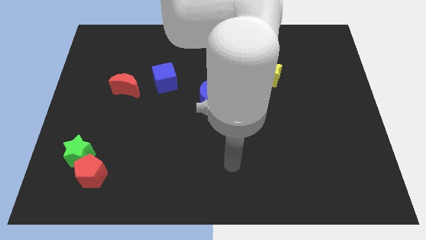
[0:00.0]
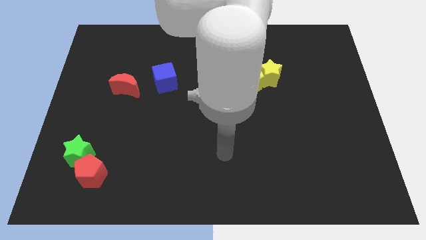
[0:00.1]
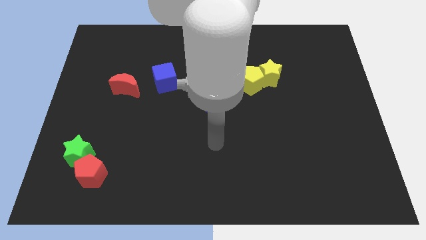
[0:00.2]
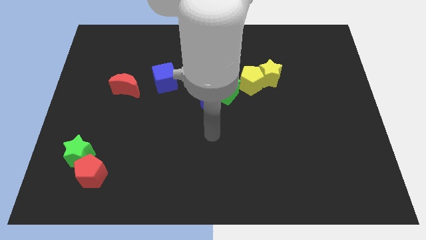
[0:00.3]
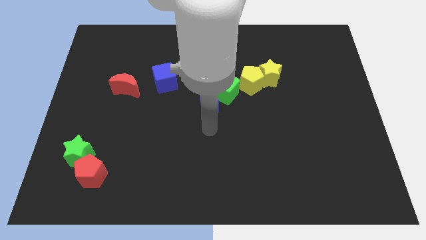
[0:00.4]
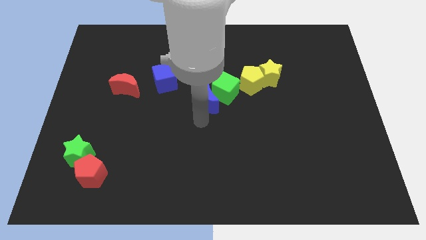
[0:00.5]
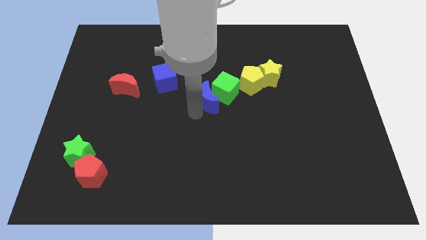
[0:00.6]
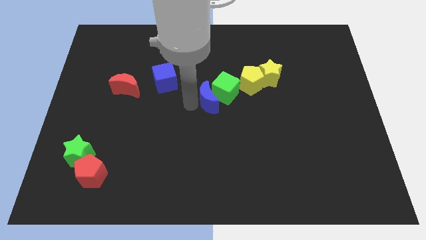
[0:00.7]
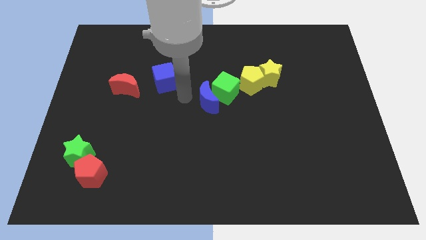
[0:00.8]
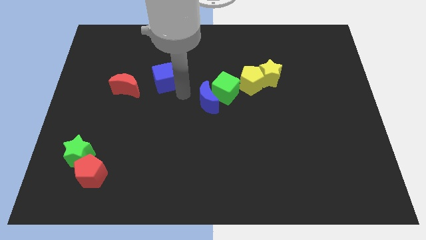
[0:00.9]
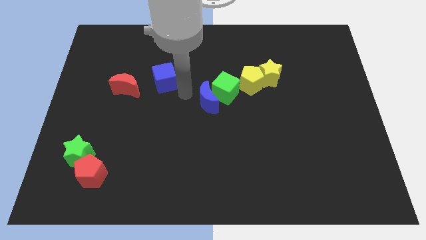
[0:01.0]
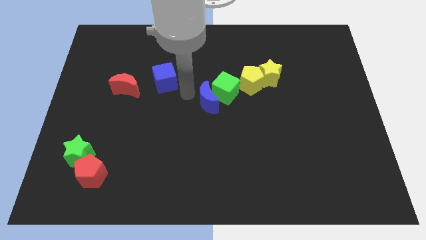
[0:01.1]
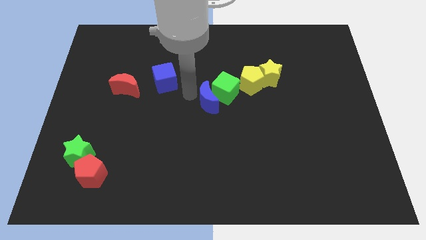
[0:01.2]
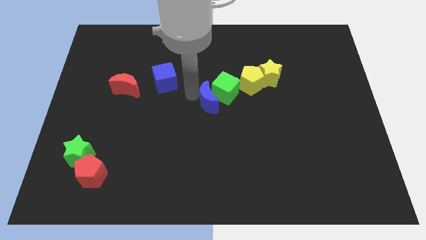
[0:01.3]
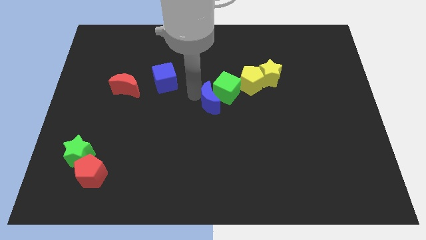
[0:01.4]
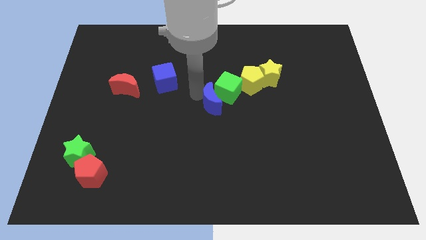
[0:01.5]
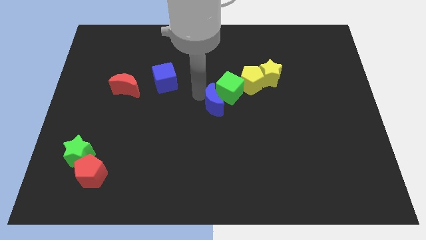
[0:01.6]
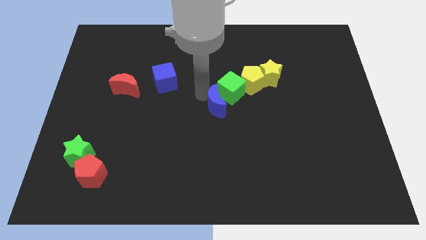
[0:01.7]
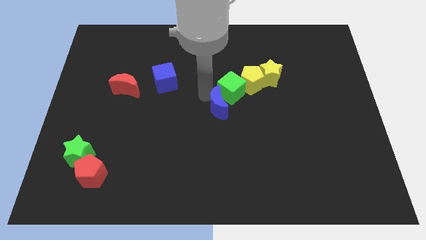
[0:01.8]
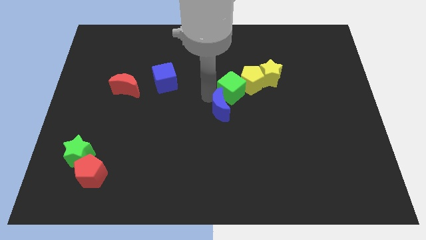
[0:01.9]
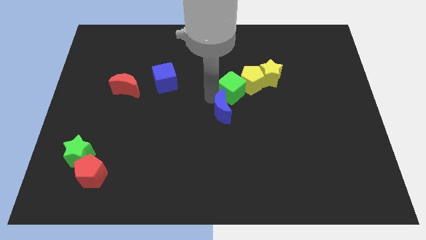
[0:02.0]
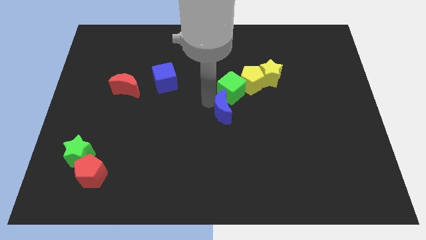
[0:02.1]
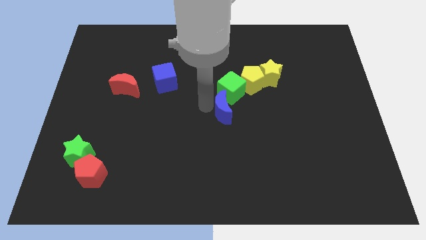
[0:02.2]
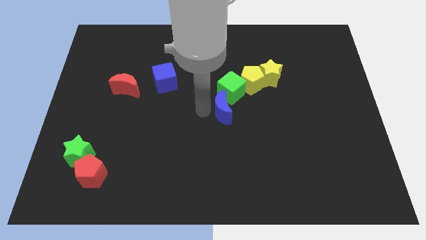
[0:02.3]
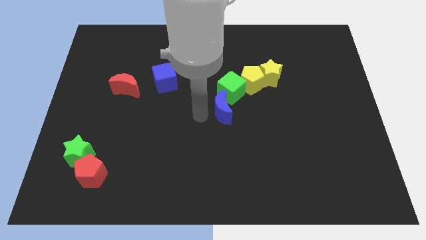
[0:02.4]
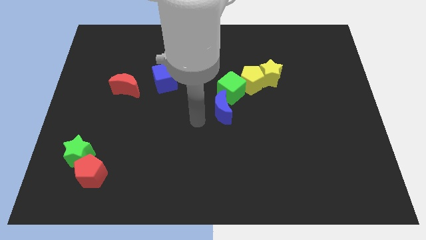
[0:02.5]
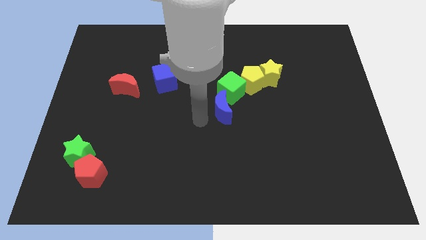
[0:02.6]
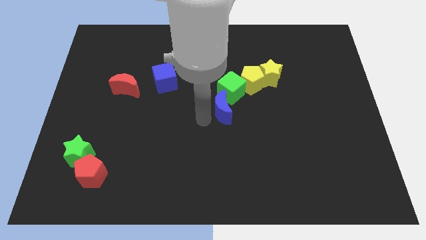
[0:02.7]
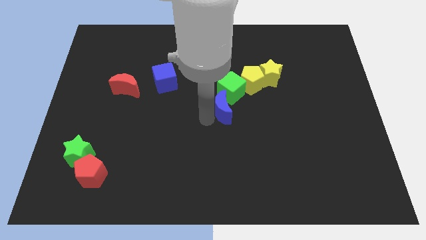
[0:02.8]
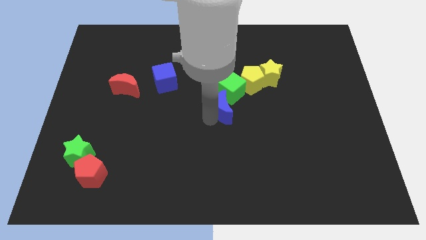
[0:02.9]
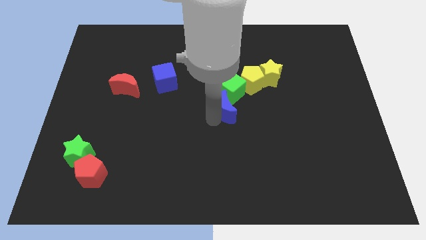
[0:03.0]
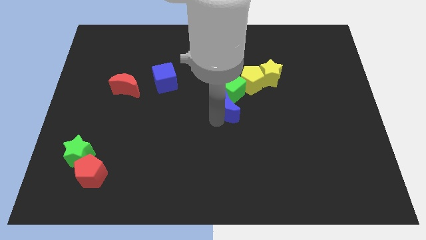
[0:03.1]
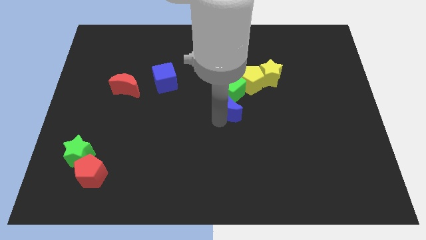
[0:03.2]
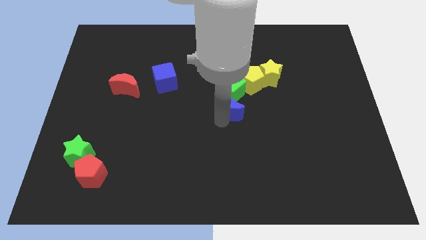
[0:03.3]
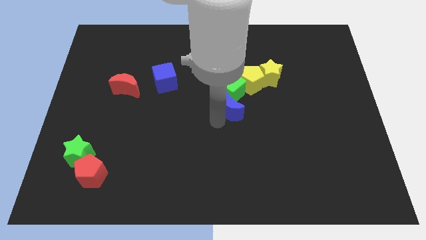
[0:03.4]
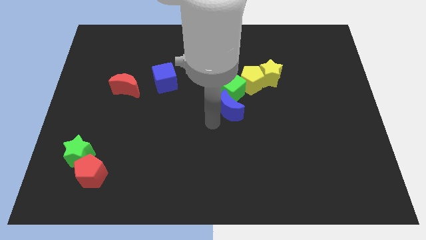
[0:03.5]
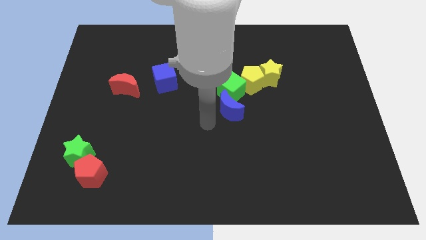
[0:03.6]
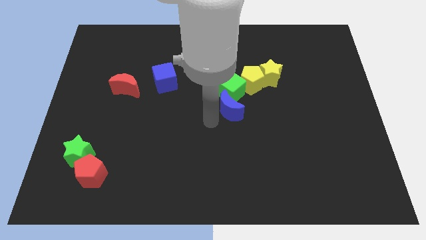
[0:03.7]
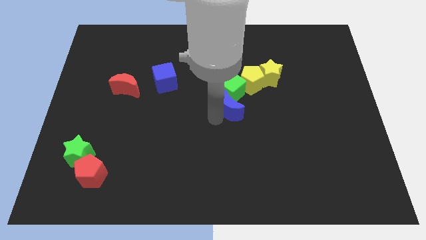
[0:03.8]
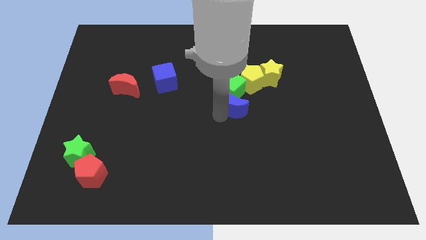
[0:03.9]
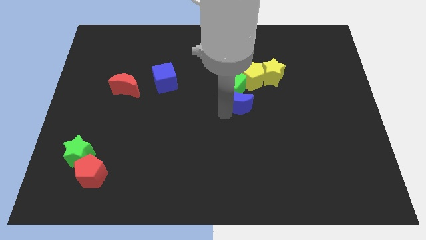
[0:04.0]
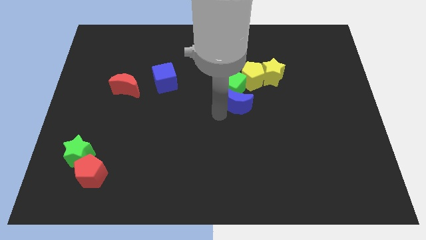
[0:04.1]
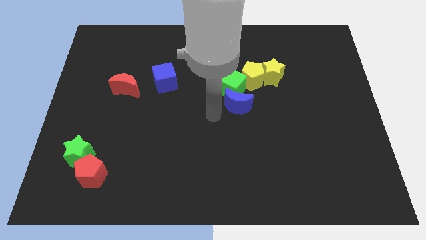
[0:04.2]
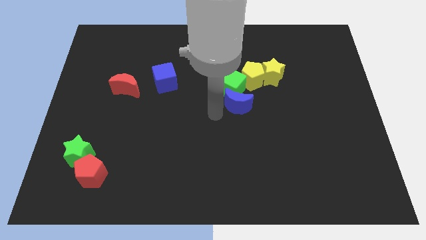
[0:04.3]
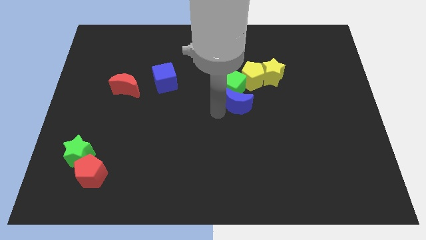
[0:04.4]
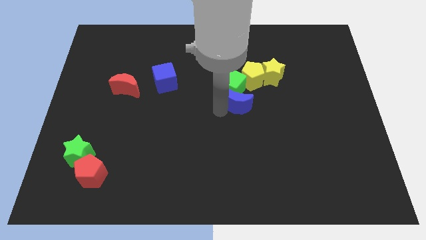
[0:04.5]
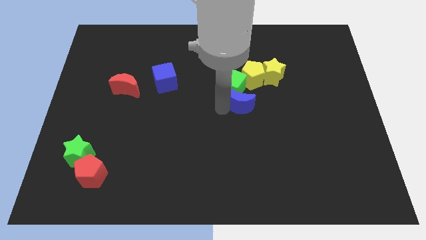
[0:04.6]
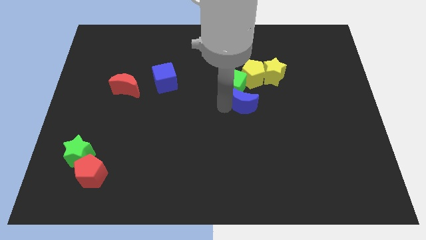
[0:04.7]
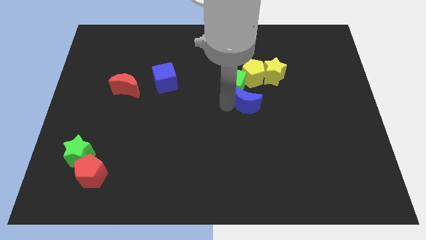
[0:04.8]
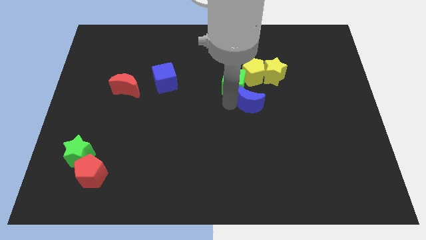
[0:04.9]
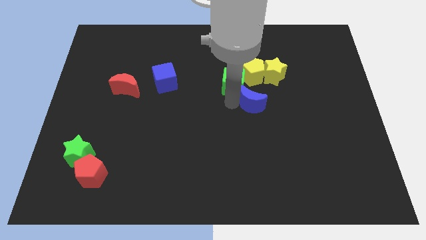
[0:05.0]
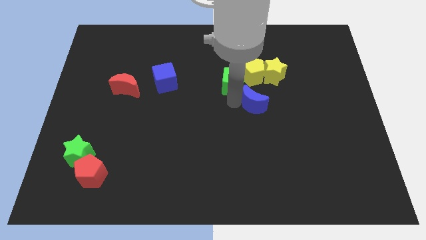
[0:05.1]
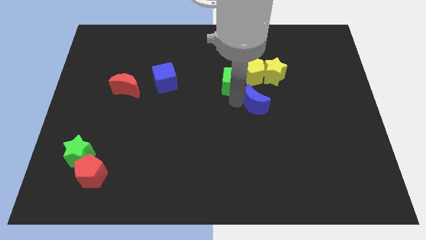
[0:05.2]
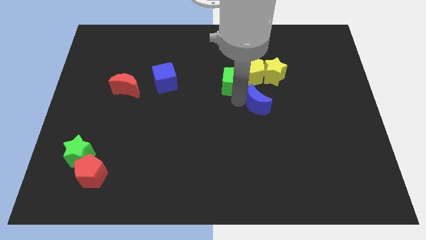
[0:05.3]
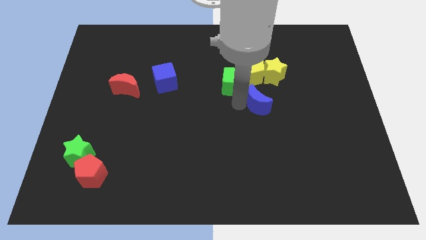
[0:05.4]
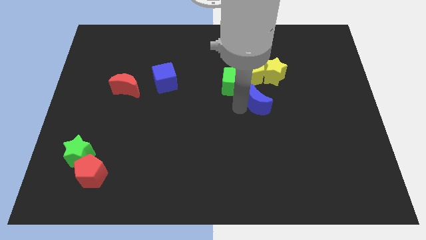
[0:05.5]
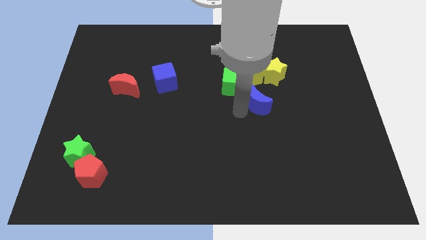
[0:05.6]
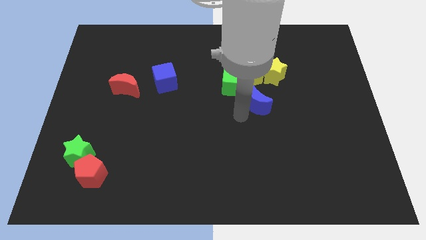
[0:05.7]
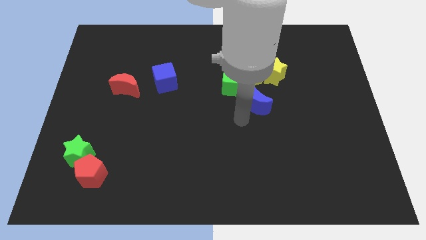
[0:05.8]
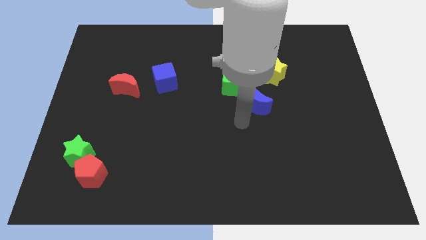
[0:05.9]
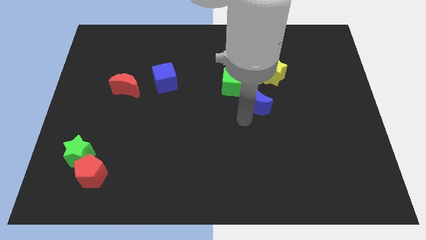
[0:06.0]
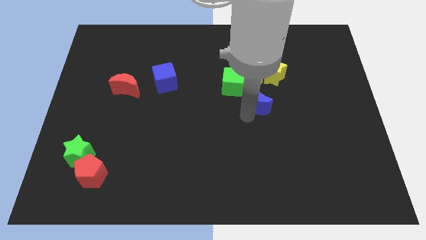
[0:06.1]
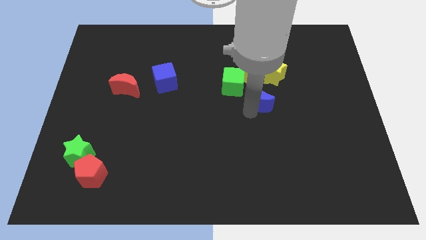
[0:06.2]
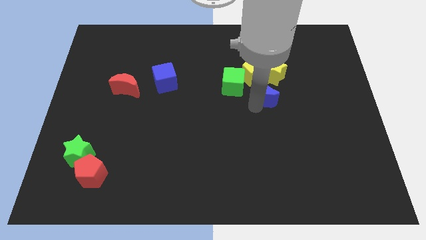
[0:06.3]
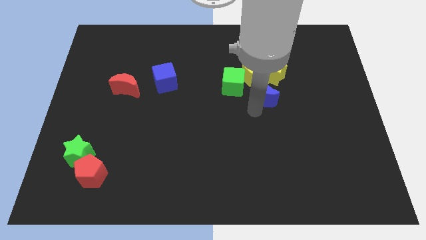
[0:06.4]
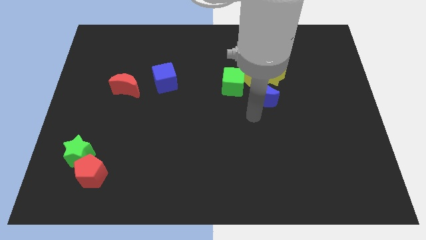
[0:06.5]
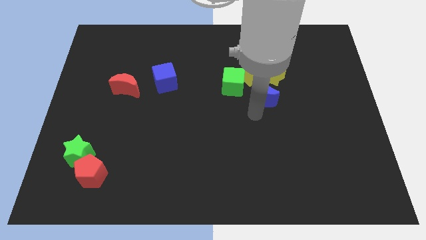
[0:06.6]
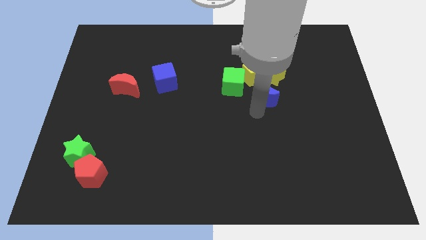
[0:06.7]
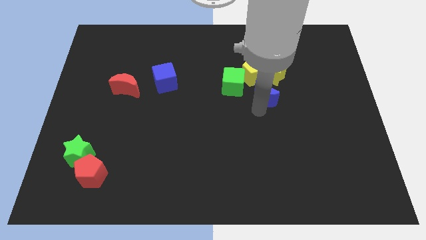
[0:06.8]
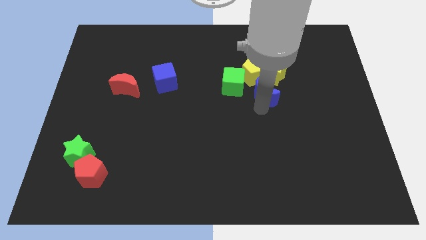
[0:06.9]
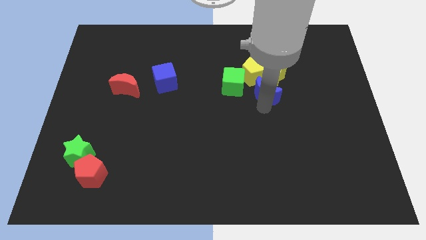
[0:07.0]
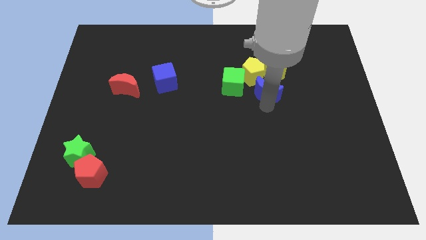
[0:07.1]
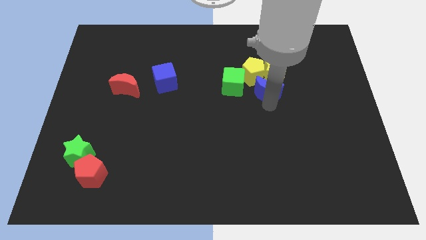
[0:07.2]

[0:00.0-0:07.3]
move the blue moon towards the yellow star
